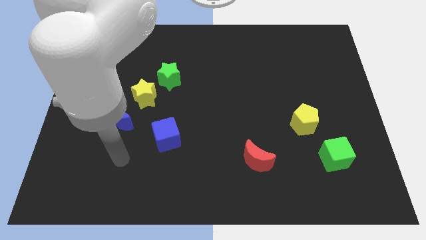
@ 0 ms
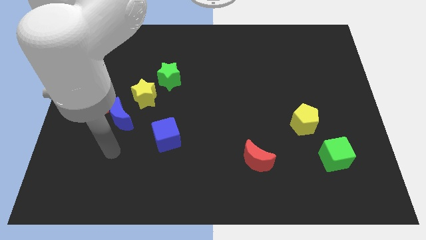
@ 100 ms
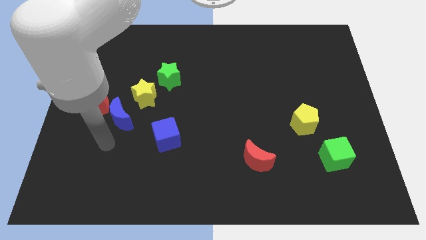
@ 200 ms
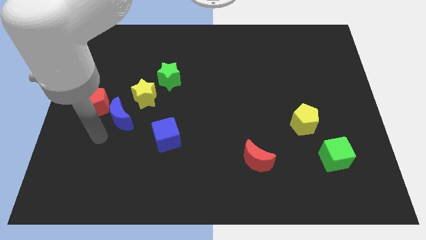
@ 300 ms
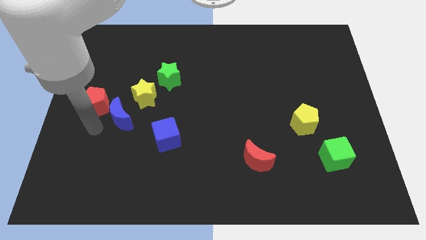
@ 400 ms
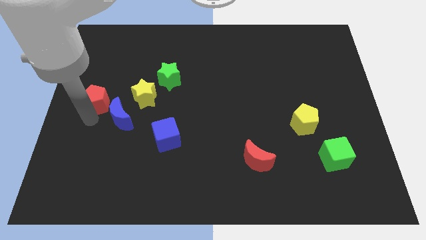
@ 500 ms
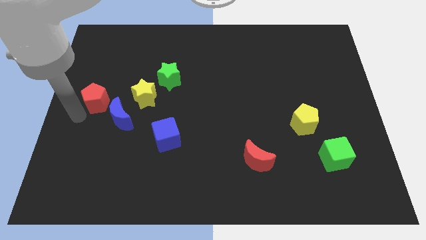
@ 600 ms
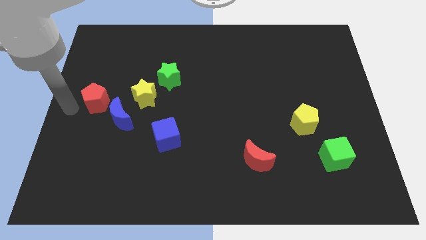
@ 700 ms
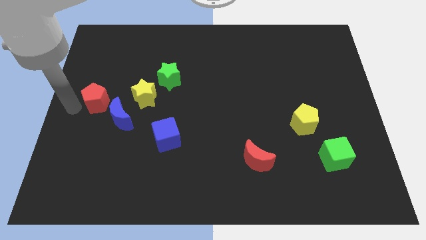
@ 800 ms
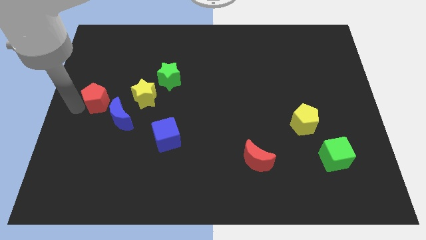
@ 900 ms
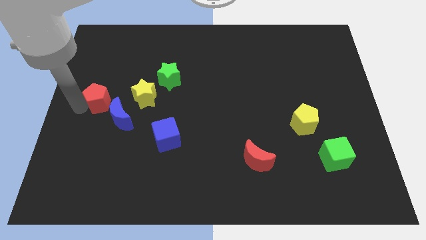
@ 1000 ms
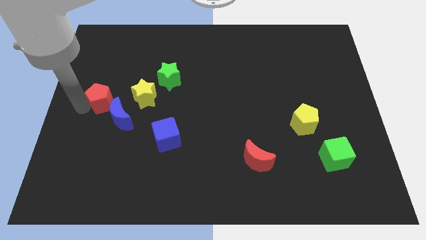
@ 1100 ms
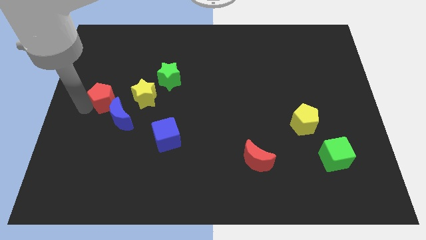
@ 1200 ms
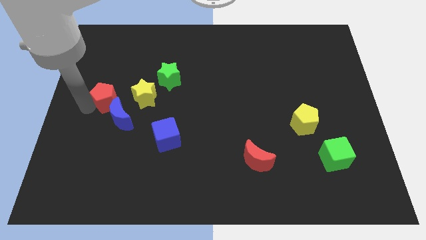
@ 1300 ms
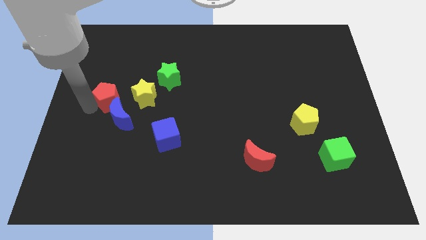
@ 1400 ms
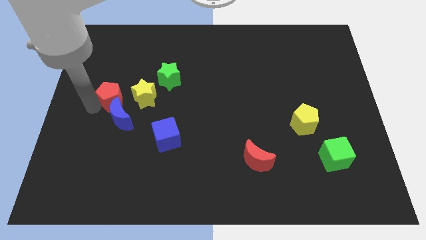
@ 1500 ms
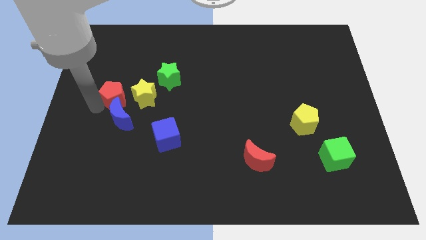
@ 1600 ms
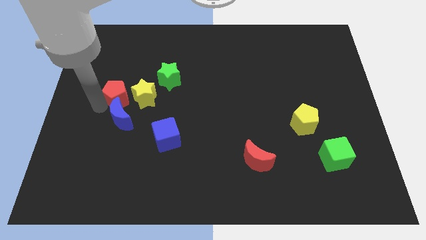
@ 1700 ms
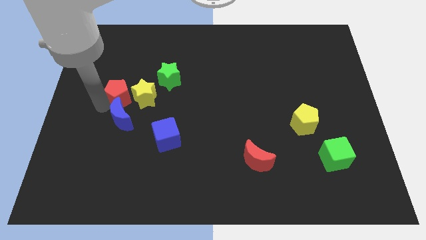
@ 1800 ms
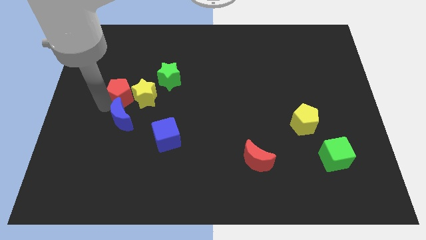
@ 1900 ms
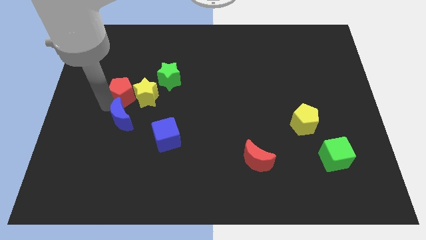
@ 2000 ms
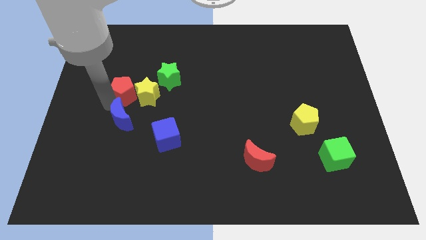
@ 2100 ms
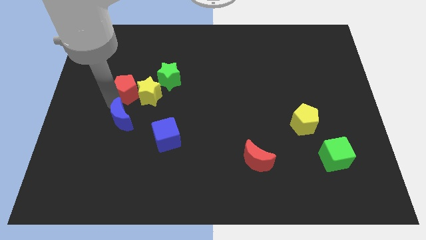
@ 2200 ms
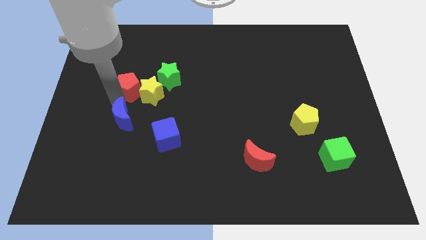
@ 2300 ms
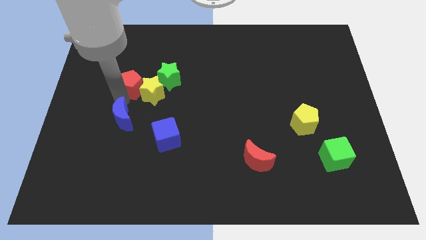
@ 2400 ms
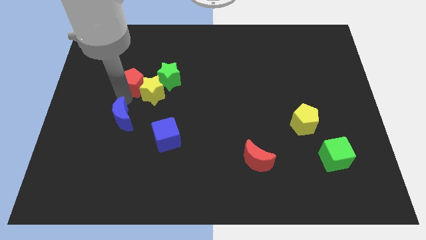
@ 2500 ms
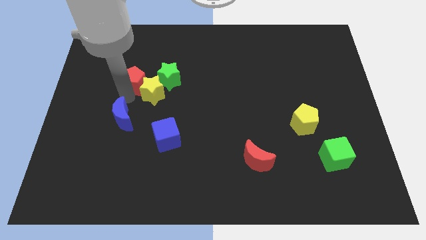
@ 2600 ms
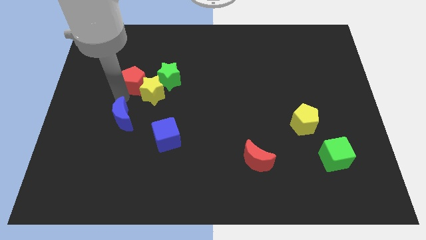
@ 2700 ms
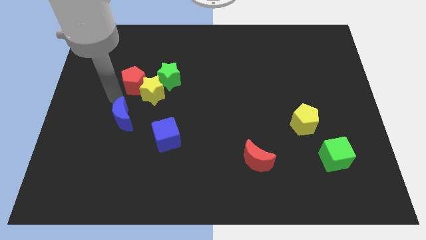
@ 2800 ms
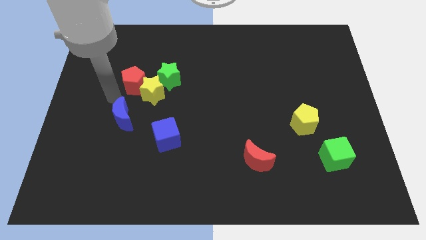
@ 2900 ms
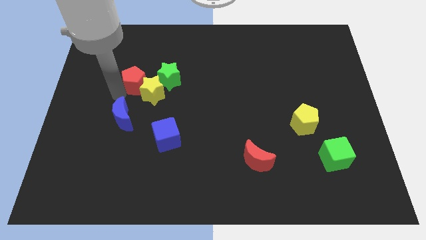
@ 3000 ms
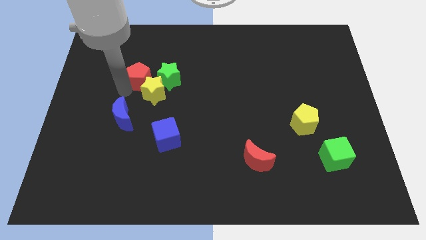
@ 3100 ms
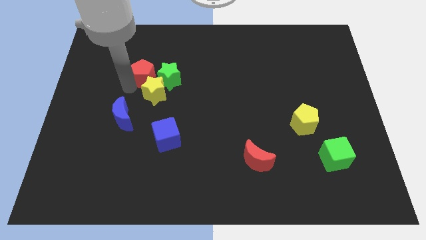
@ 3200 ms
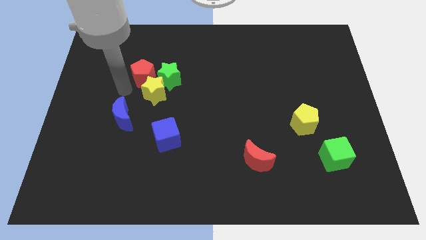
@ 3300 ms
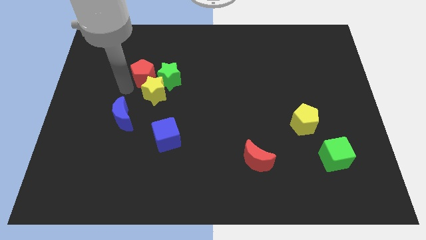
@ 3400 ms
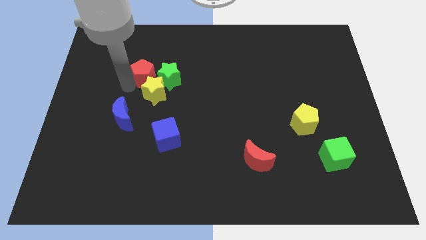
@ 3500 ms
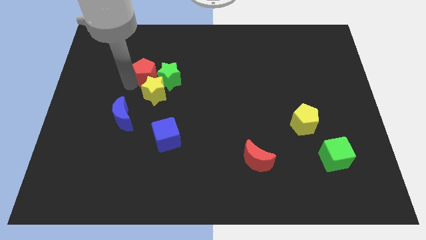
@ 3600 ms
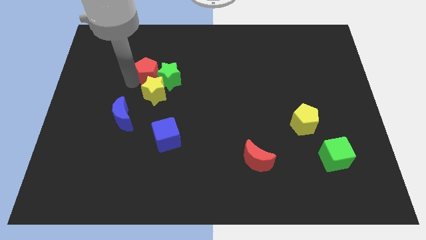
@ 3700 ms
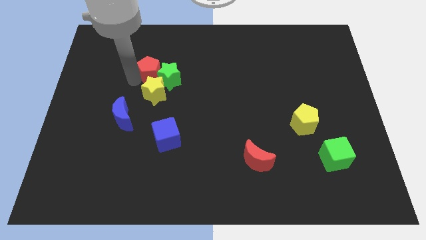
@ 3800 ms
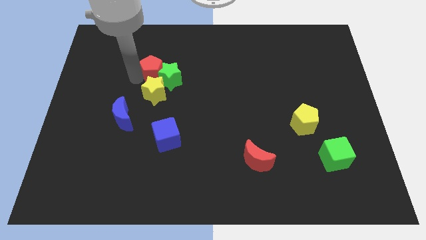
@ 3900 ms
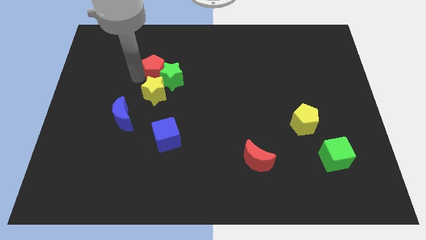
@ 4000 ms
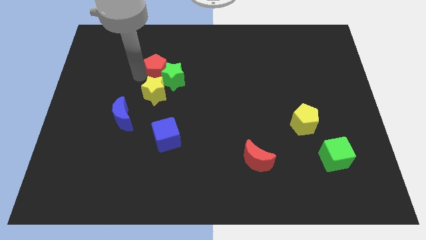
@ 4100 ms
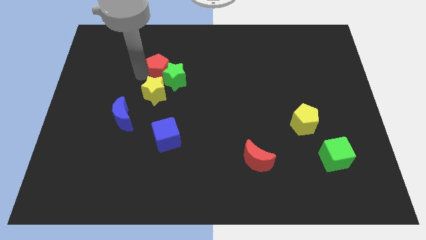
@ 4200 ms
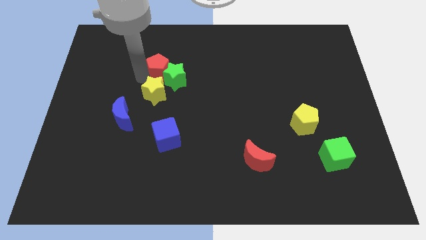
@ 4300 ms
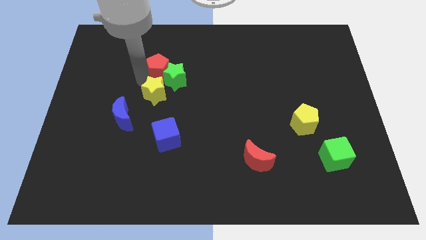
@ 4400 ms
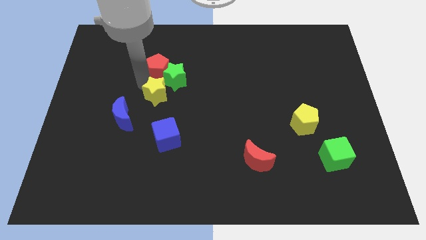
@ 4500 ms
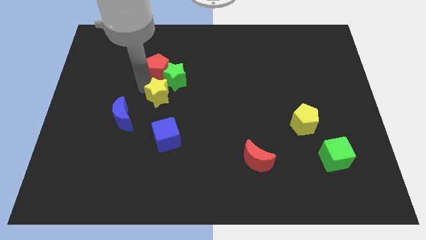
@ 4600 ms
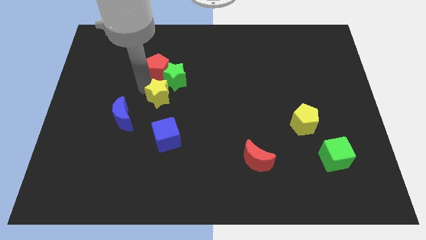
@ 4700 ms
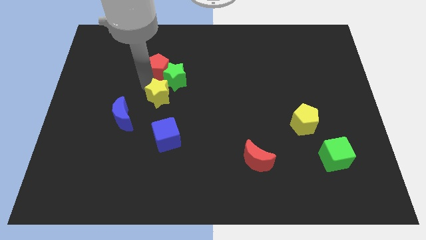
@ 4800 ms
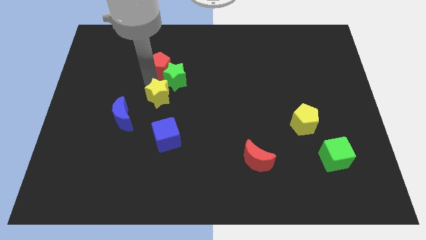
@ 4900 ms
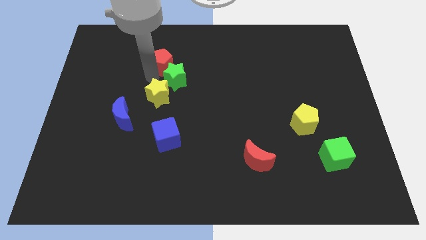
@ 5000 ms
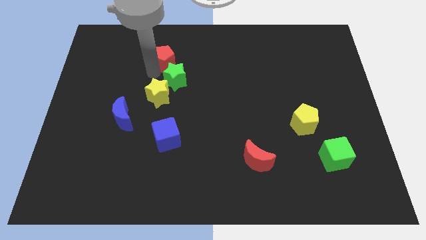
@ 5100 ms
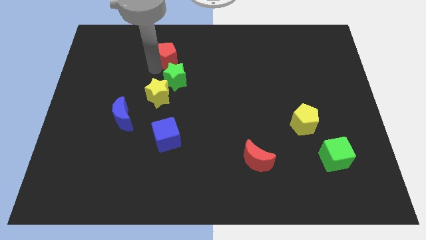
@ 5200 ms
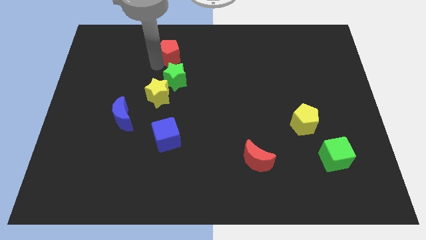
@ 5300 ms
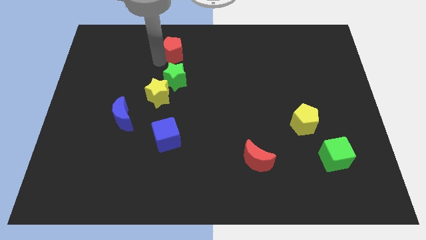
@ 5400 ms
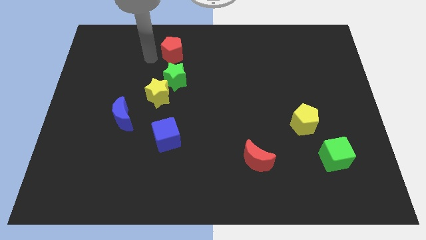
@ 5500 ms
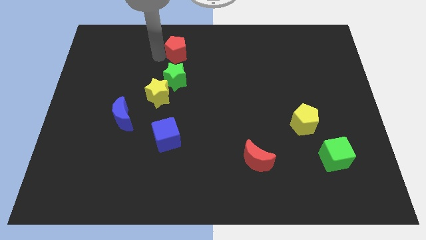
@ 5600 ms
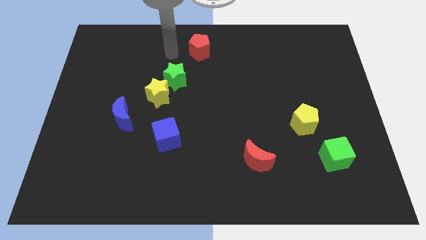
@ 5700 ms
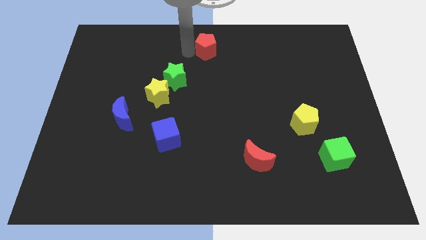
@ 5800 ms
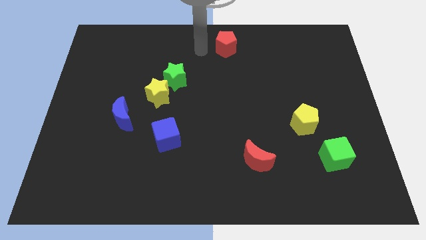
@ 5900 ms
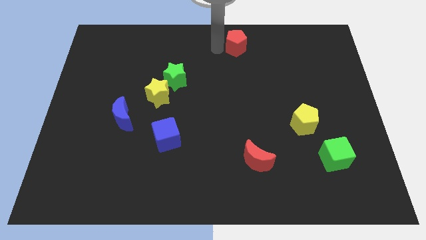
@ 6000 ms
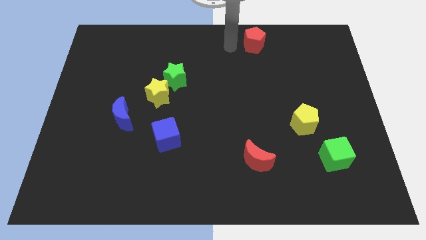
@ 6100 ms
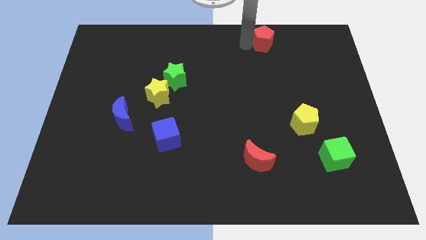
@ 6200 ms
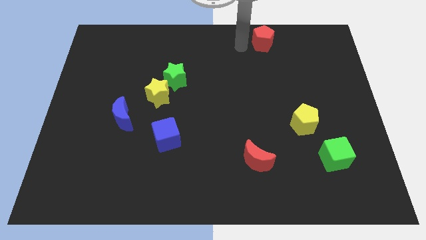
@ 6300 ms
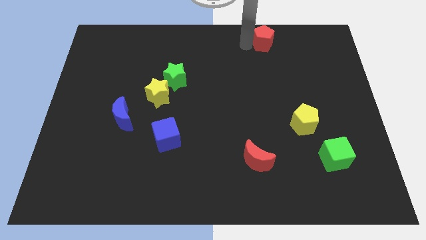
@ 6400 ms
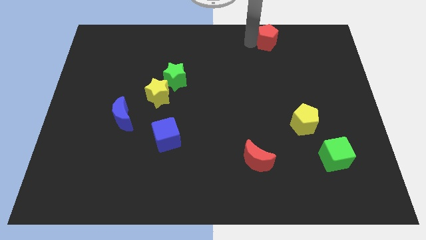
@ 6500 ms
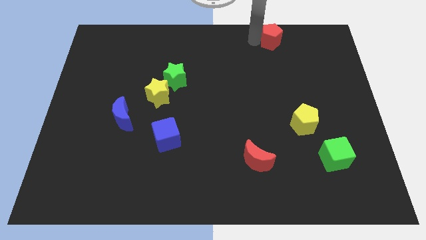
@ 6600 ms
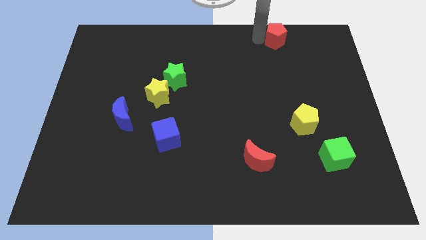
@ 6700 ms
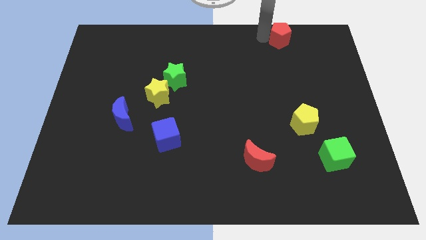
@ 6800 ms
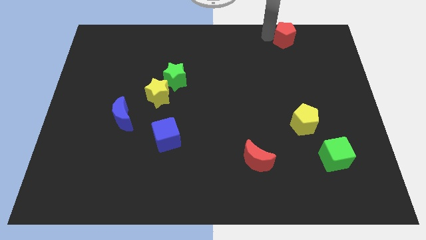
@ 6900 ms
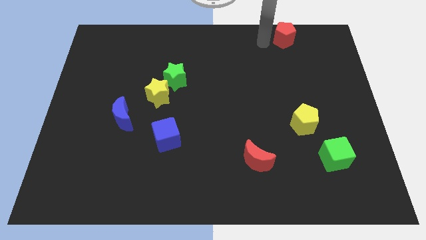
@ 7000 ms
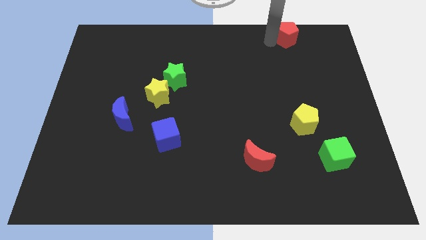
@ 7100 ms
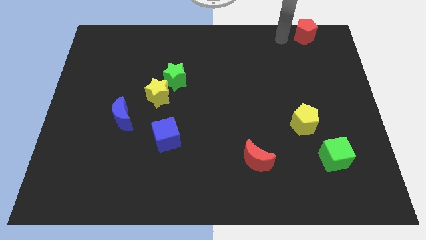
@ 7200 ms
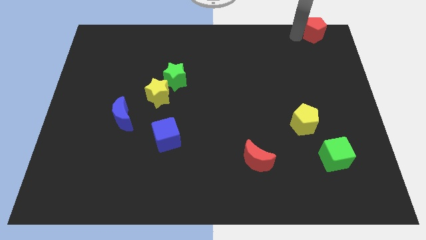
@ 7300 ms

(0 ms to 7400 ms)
move the red pentagon to the top right corner
